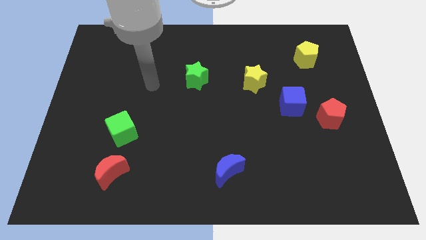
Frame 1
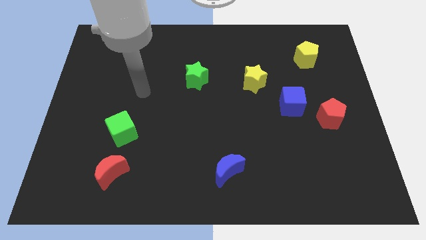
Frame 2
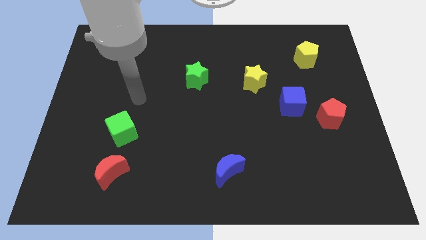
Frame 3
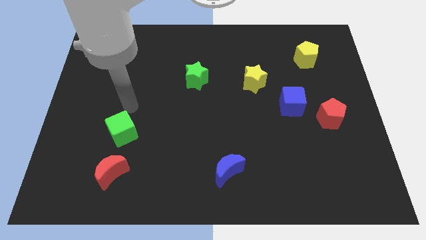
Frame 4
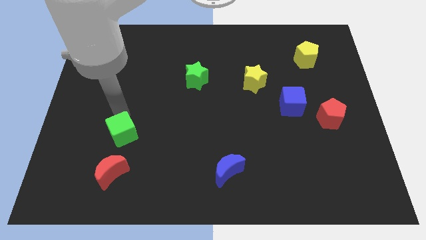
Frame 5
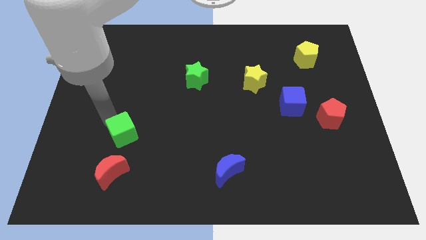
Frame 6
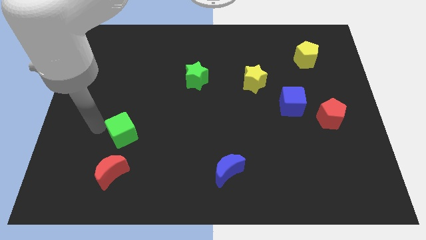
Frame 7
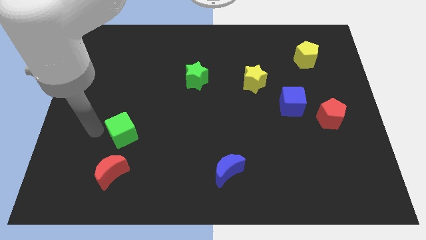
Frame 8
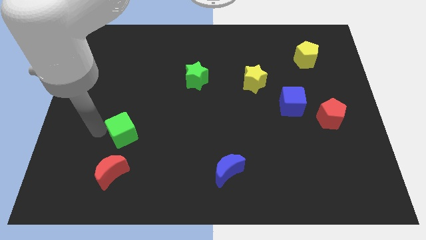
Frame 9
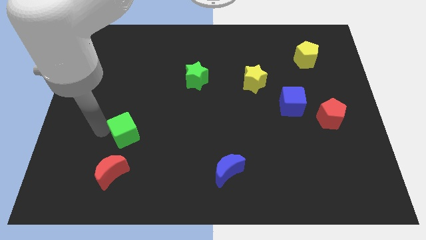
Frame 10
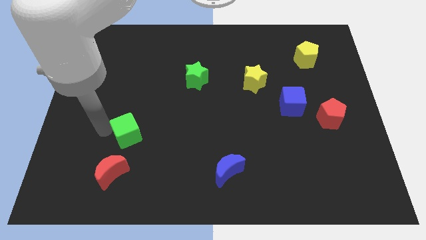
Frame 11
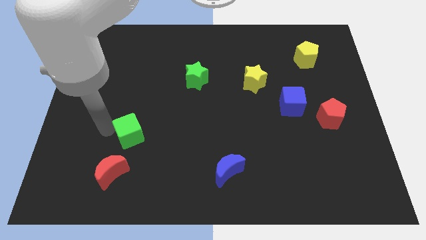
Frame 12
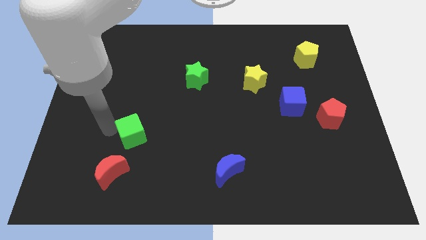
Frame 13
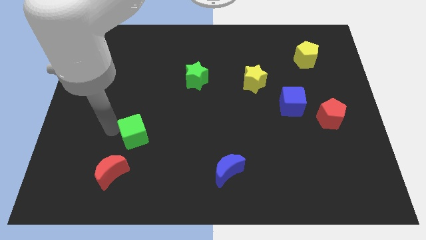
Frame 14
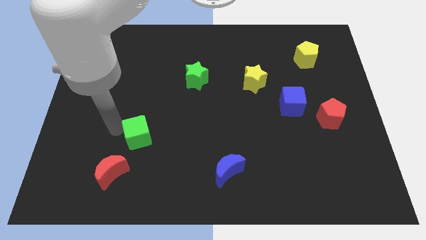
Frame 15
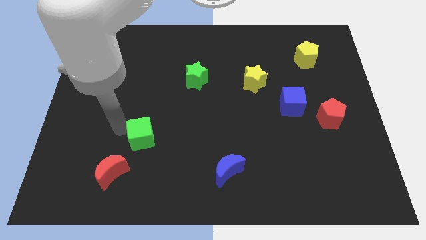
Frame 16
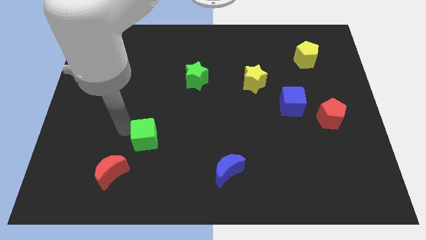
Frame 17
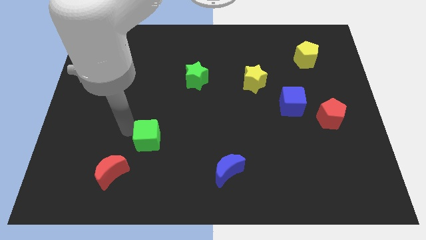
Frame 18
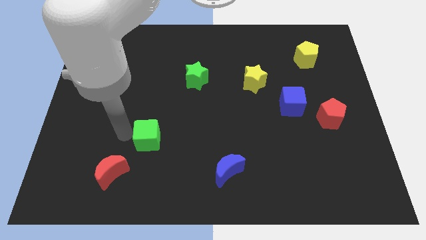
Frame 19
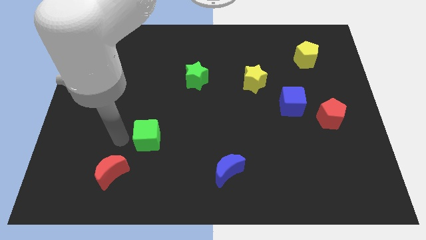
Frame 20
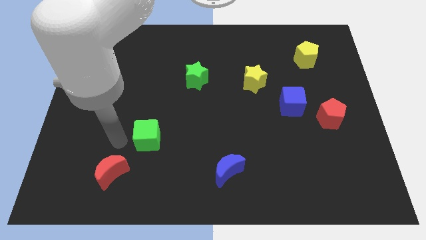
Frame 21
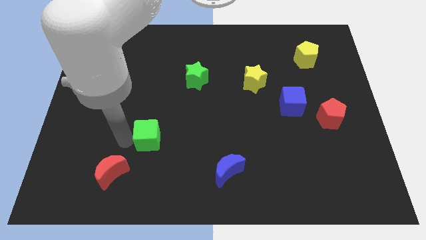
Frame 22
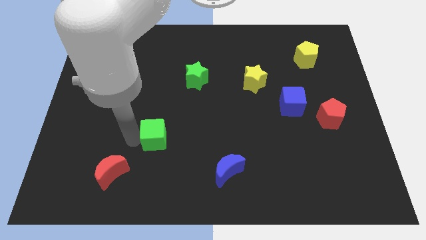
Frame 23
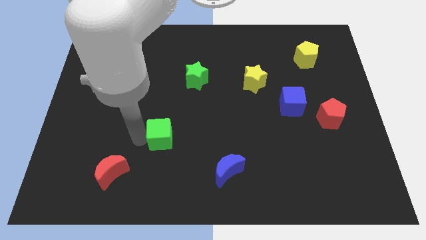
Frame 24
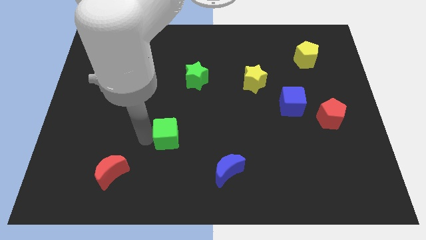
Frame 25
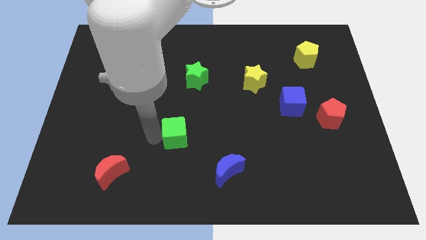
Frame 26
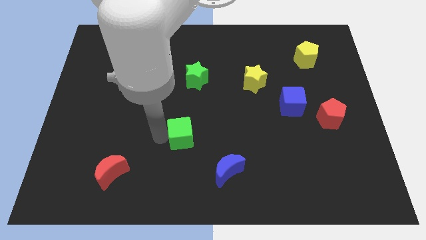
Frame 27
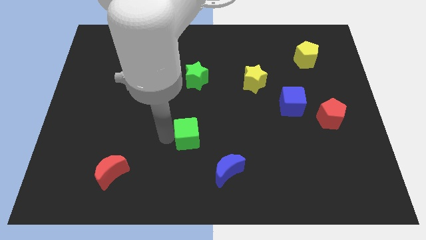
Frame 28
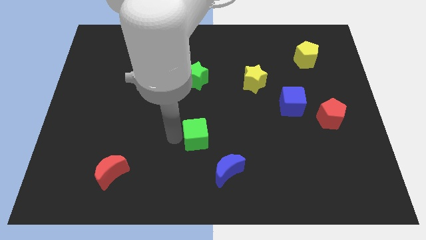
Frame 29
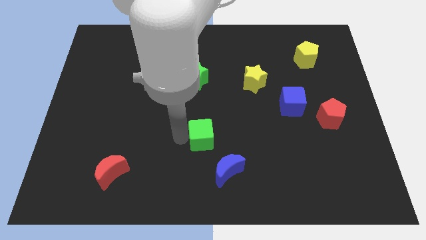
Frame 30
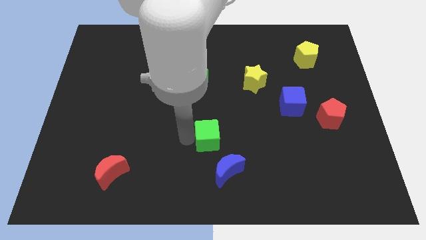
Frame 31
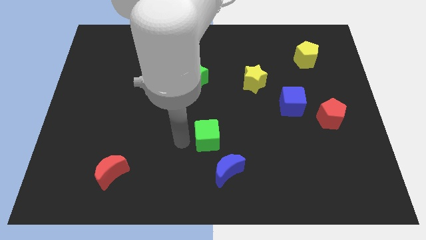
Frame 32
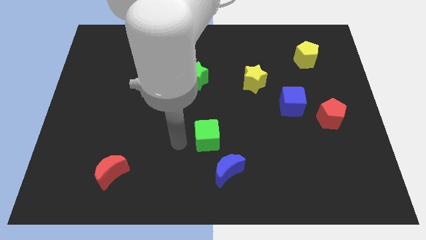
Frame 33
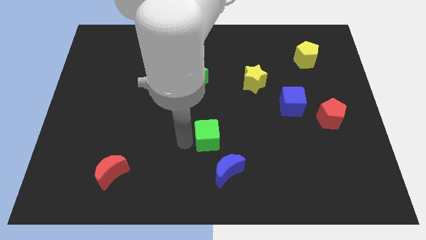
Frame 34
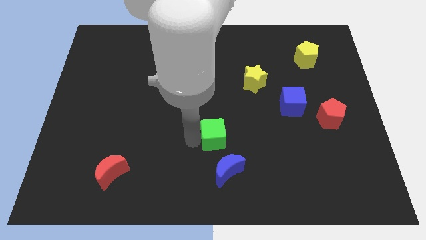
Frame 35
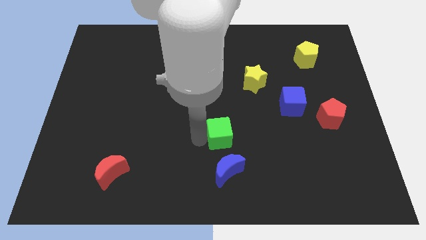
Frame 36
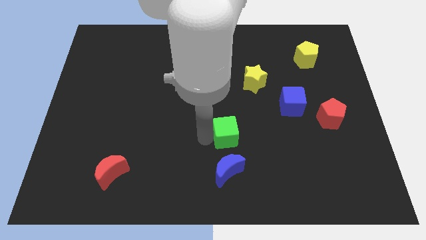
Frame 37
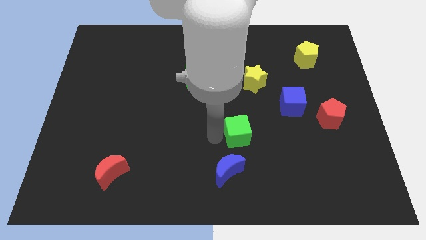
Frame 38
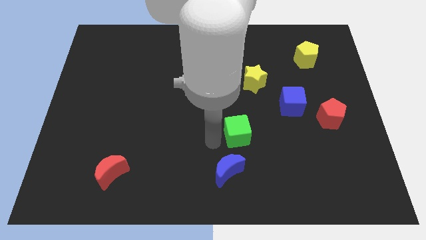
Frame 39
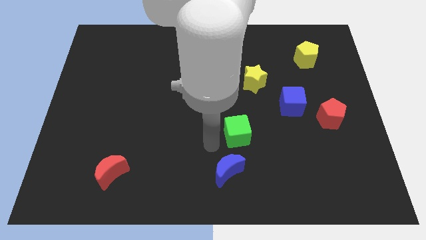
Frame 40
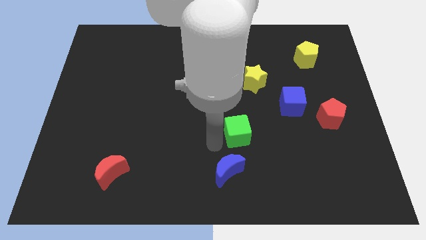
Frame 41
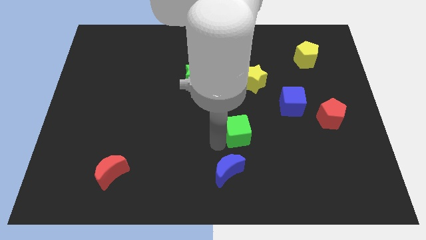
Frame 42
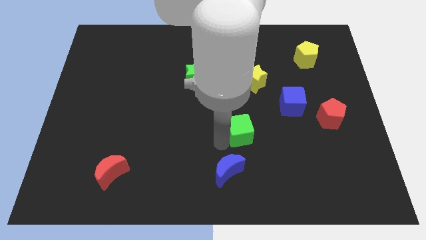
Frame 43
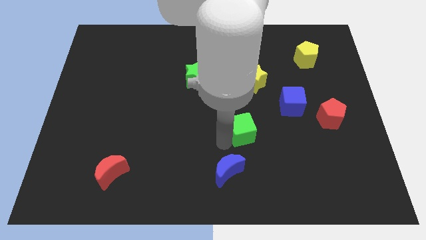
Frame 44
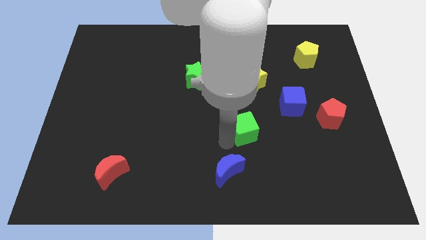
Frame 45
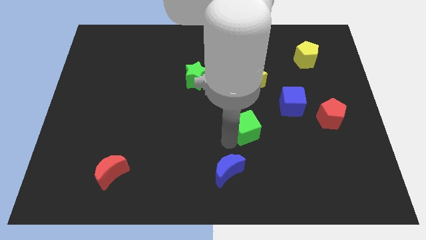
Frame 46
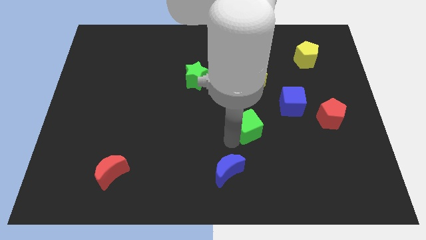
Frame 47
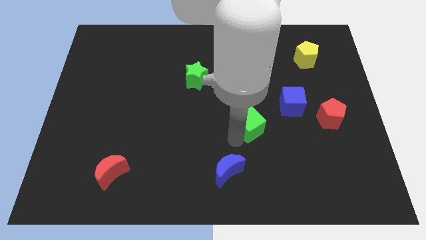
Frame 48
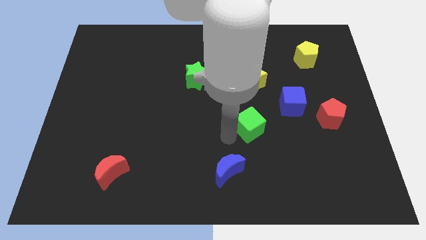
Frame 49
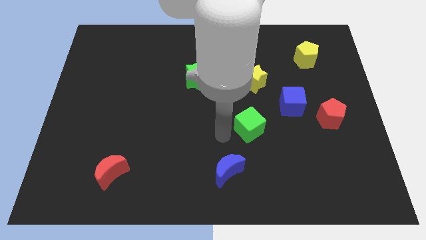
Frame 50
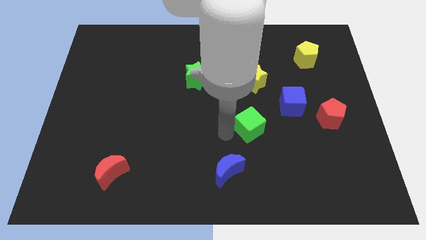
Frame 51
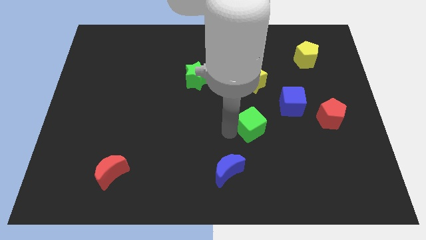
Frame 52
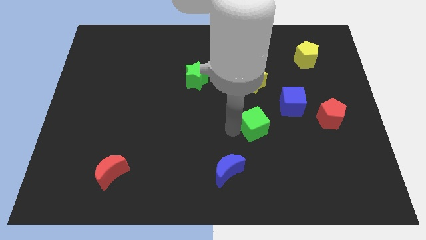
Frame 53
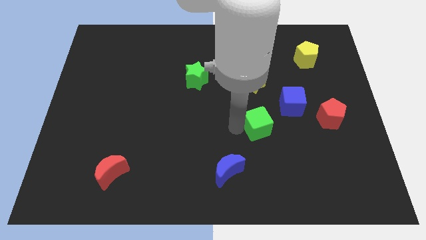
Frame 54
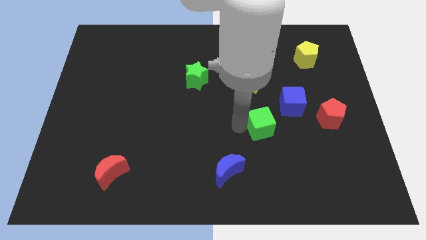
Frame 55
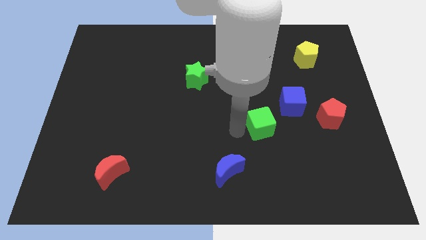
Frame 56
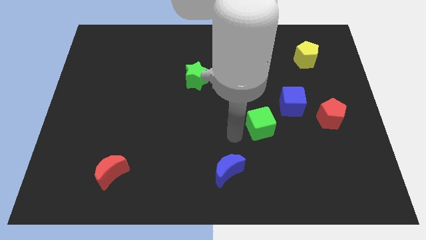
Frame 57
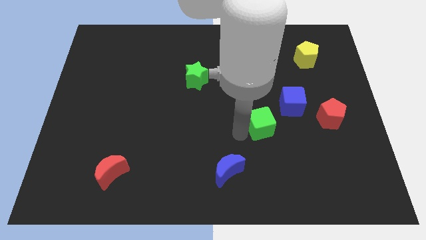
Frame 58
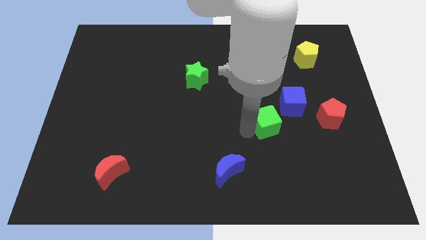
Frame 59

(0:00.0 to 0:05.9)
slide the green cube to the left of the red pentagon

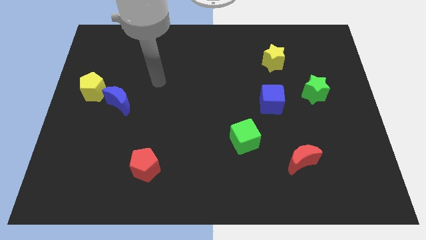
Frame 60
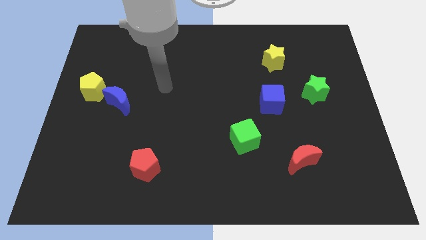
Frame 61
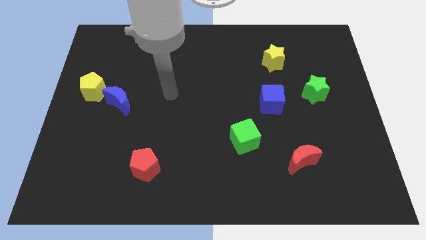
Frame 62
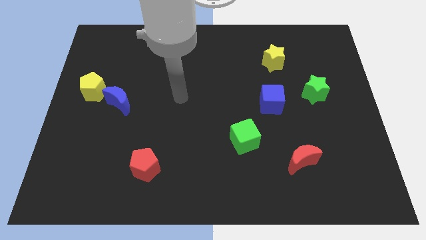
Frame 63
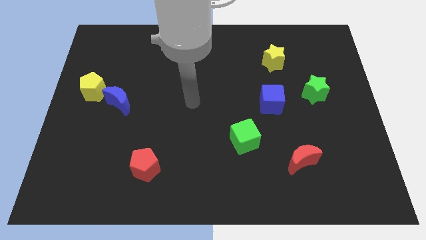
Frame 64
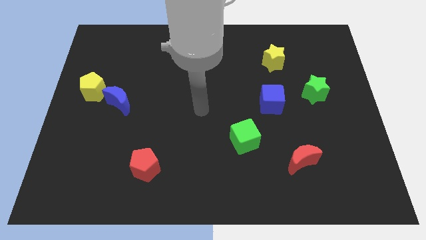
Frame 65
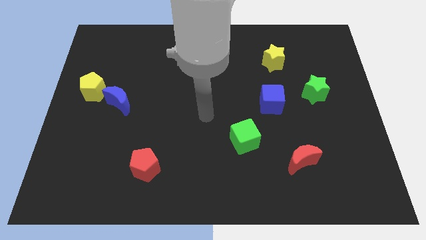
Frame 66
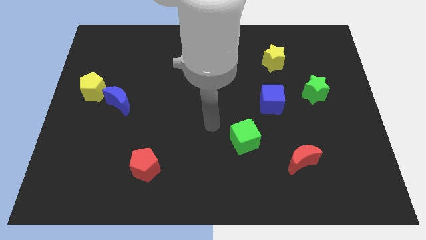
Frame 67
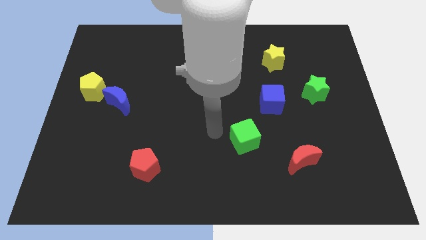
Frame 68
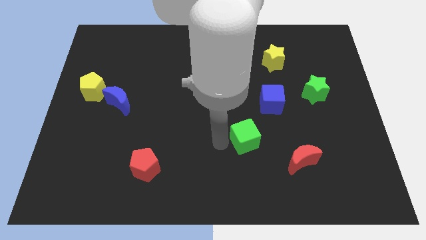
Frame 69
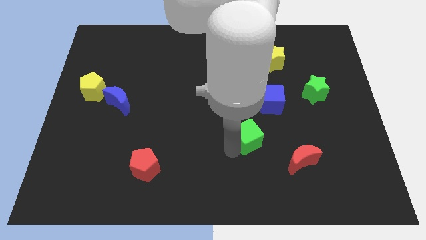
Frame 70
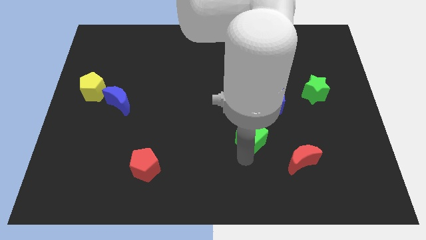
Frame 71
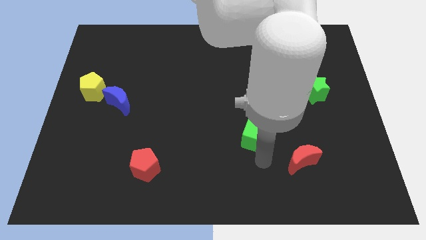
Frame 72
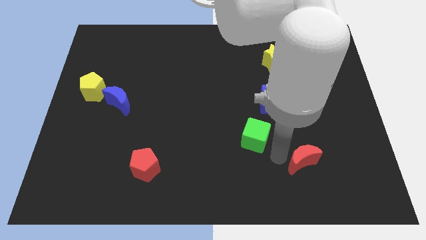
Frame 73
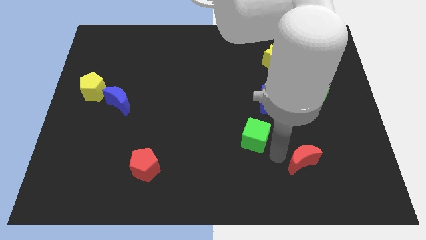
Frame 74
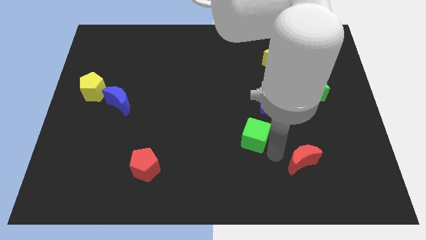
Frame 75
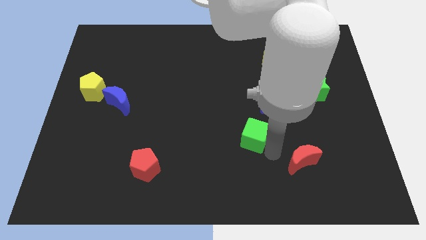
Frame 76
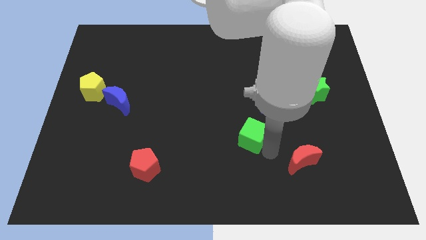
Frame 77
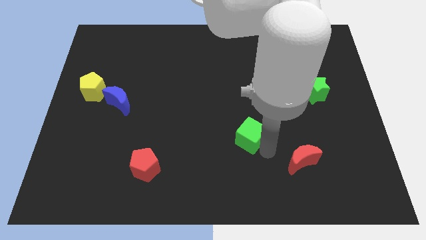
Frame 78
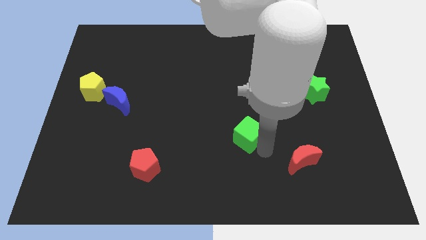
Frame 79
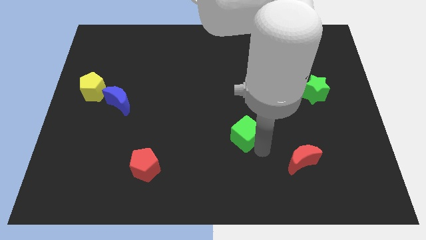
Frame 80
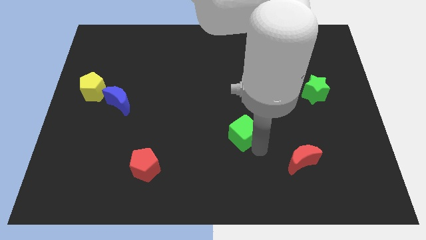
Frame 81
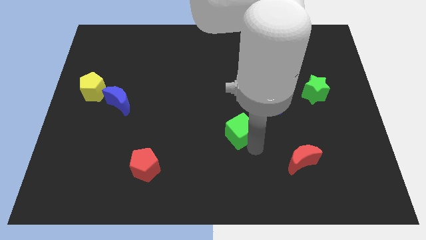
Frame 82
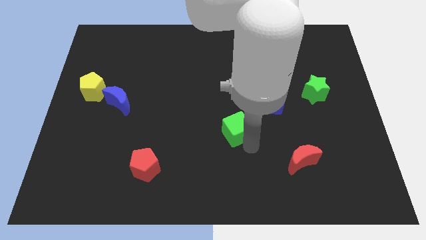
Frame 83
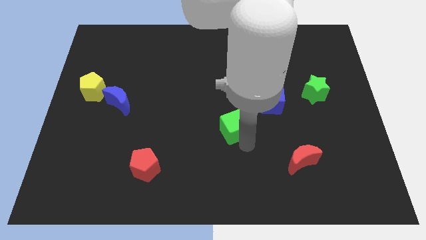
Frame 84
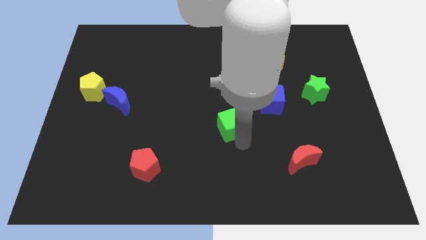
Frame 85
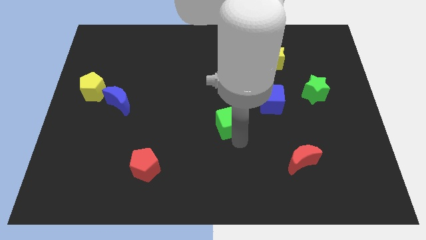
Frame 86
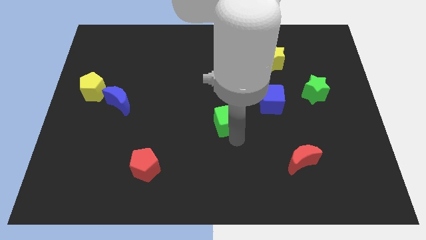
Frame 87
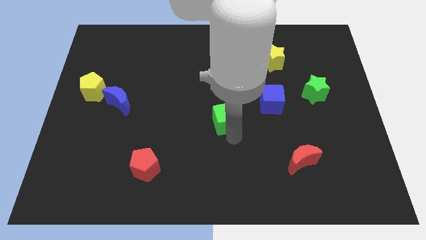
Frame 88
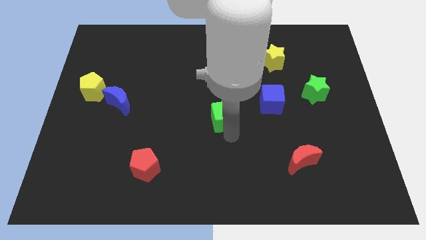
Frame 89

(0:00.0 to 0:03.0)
push the green cube just left of the blue cube
